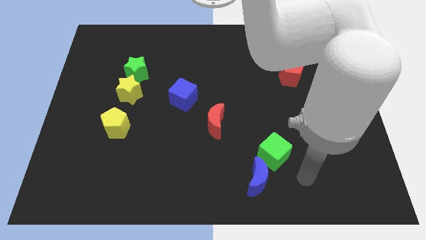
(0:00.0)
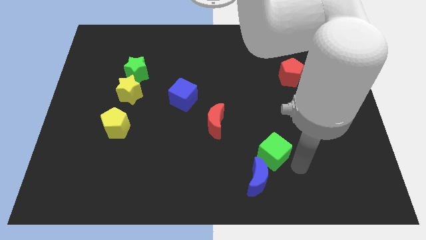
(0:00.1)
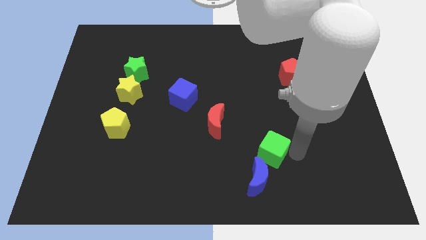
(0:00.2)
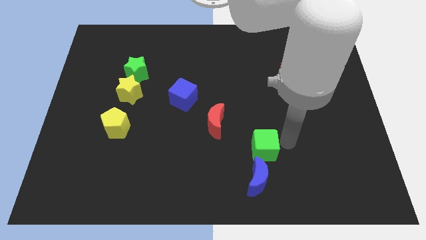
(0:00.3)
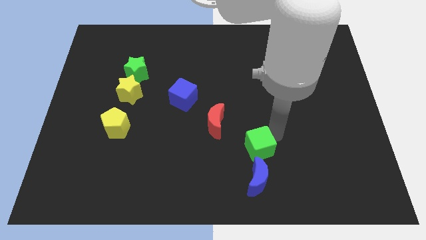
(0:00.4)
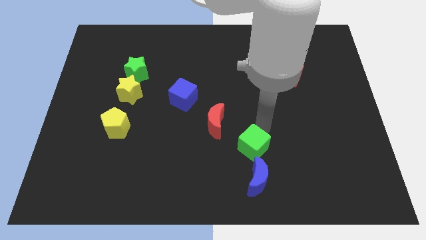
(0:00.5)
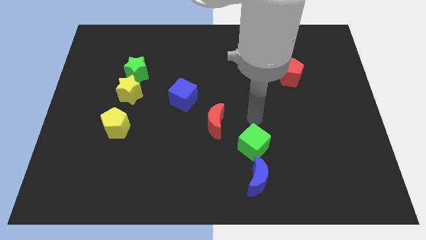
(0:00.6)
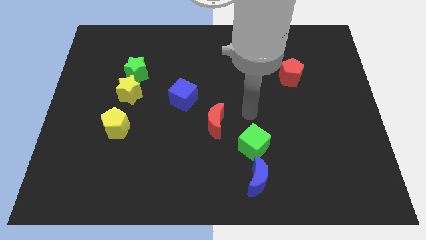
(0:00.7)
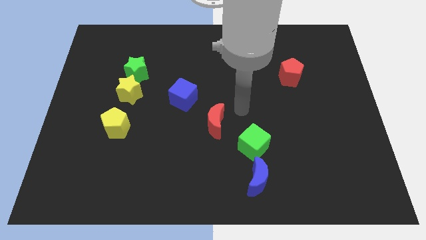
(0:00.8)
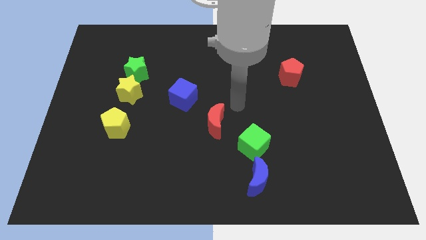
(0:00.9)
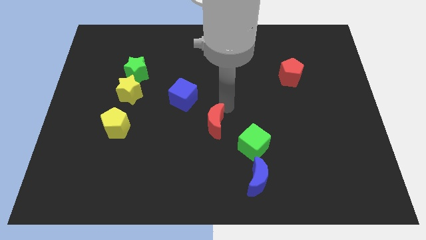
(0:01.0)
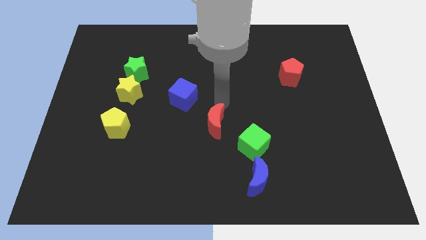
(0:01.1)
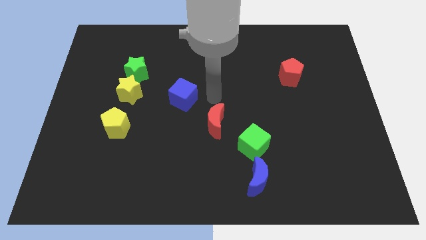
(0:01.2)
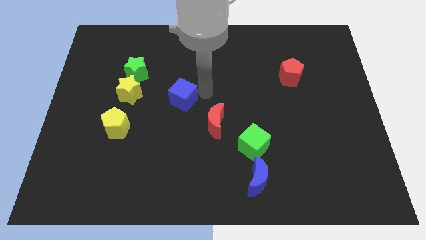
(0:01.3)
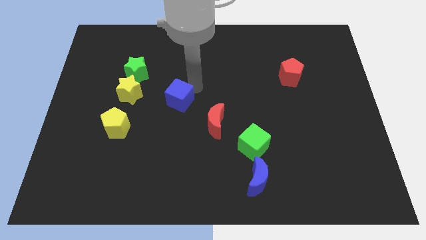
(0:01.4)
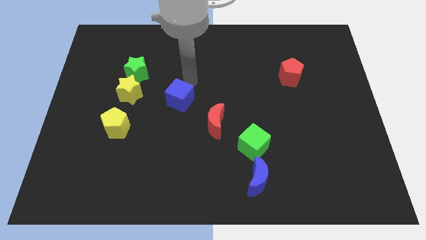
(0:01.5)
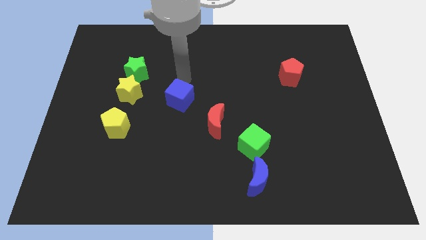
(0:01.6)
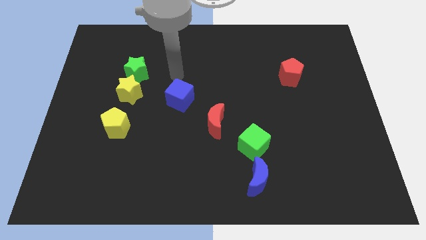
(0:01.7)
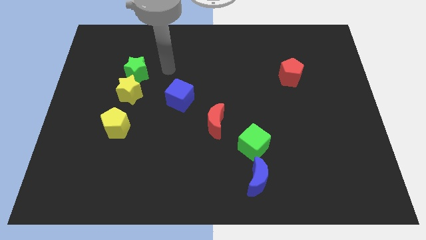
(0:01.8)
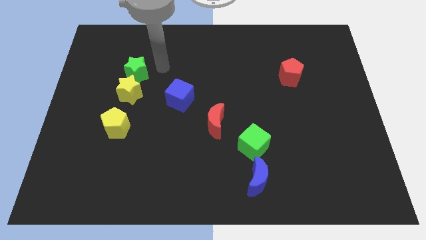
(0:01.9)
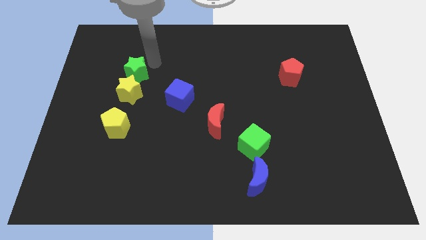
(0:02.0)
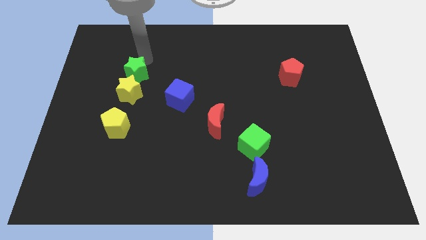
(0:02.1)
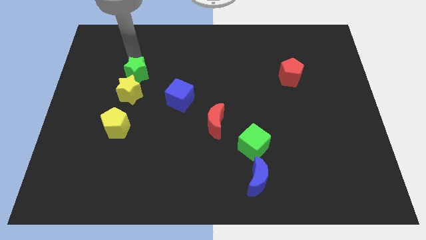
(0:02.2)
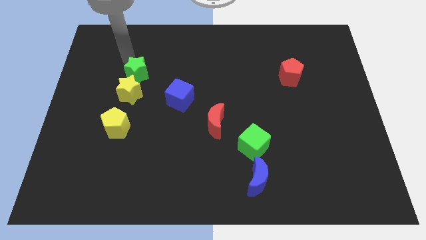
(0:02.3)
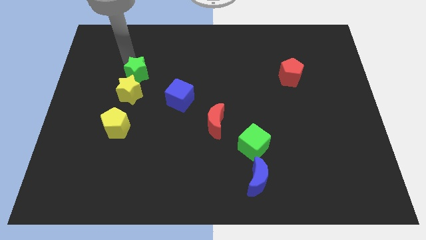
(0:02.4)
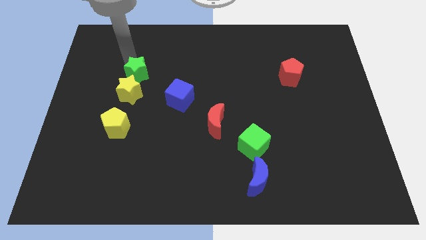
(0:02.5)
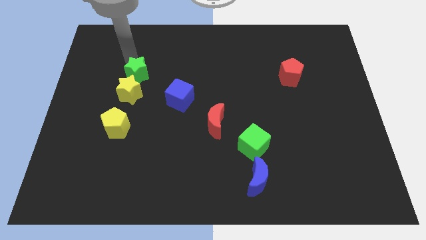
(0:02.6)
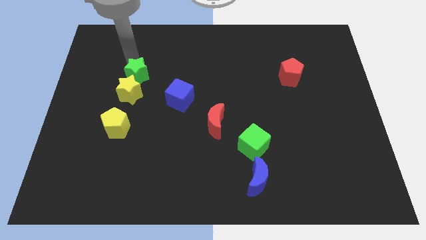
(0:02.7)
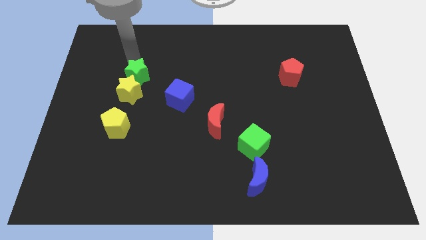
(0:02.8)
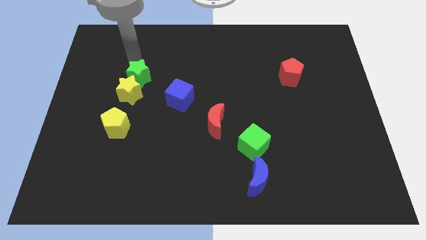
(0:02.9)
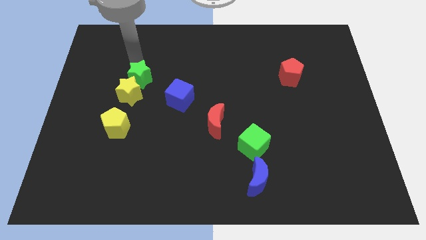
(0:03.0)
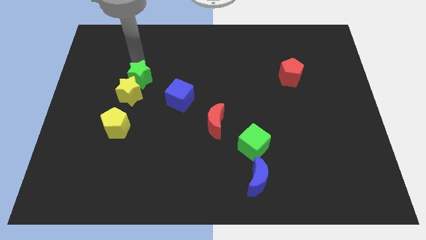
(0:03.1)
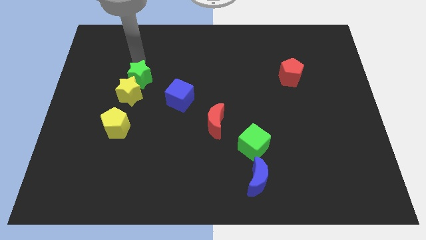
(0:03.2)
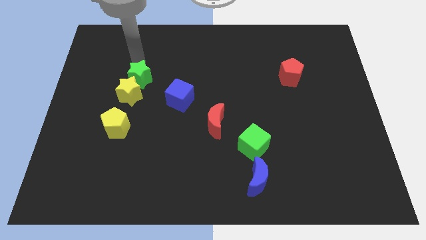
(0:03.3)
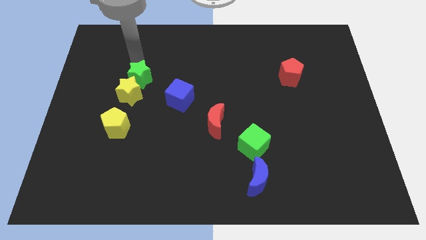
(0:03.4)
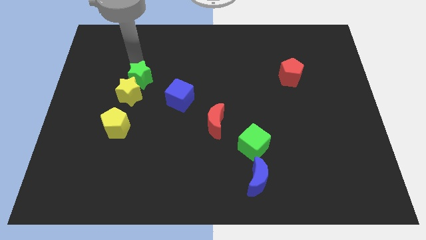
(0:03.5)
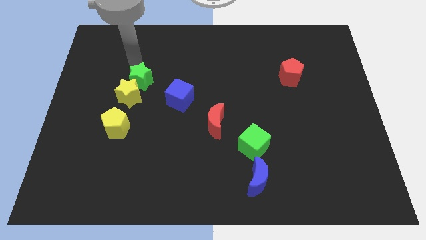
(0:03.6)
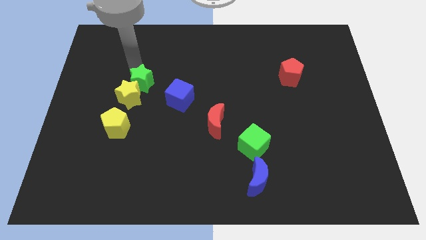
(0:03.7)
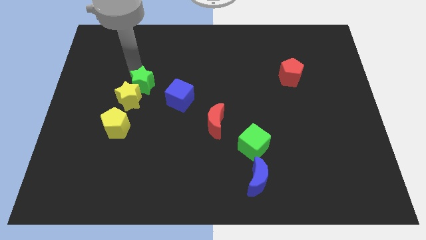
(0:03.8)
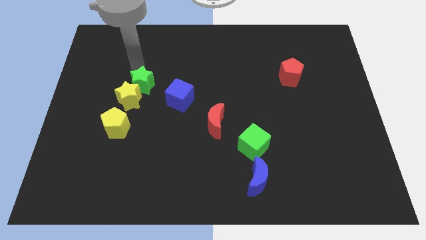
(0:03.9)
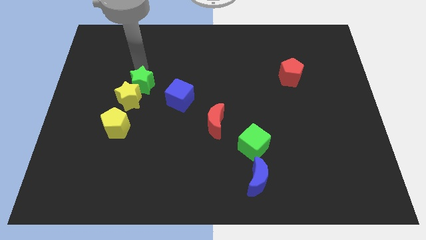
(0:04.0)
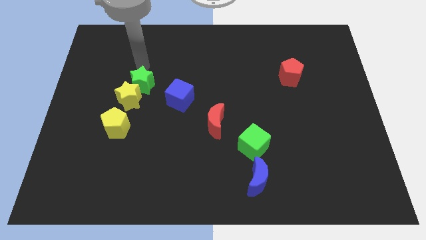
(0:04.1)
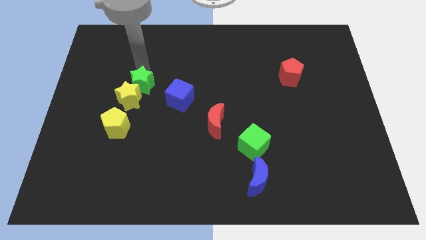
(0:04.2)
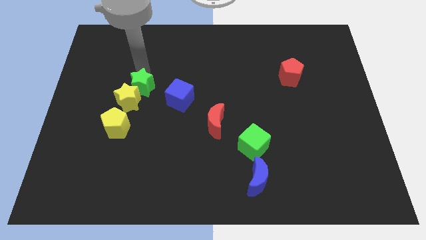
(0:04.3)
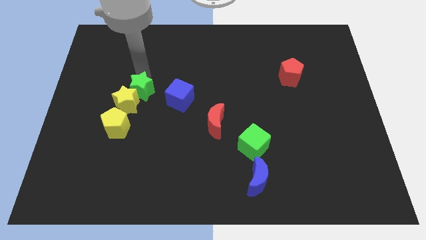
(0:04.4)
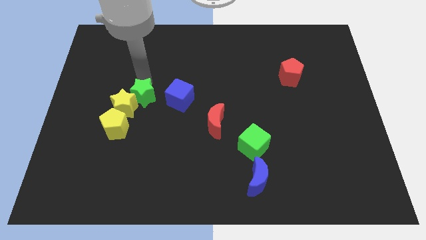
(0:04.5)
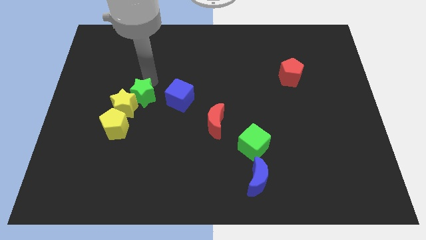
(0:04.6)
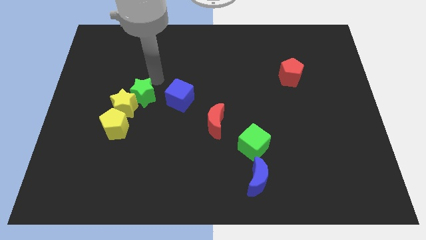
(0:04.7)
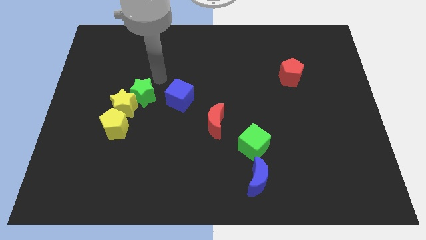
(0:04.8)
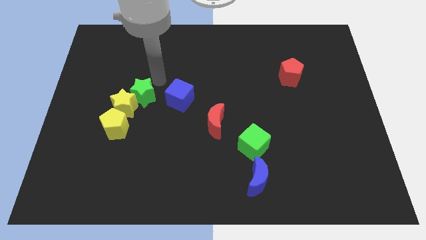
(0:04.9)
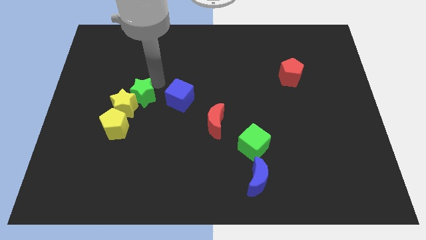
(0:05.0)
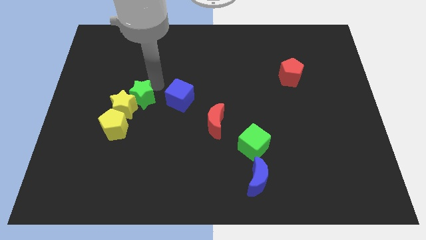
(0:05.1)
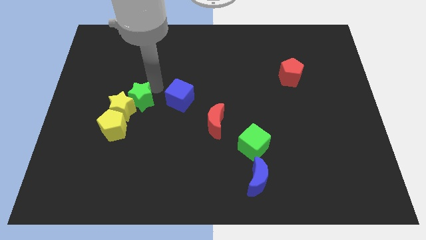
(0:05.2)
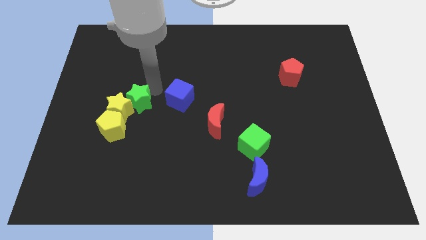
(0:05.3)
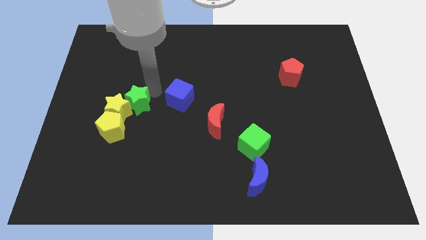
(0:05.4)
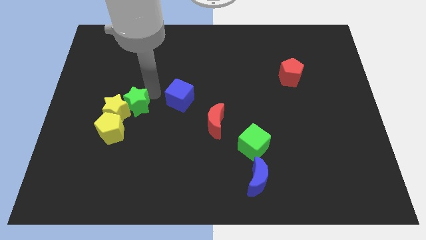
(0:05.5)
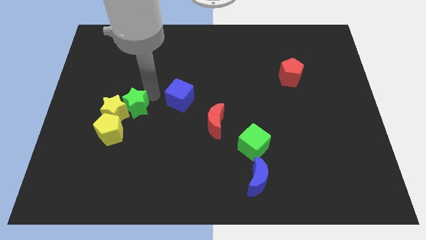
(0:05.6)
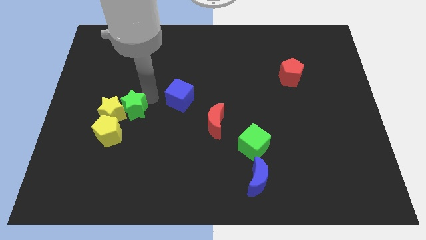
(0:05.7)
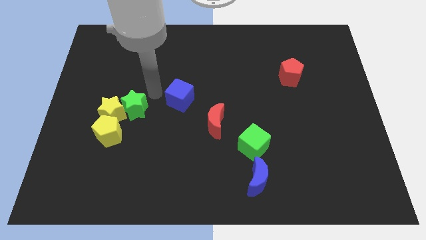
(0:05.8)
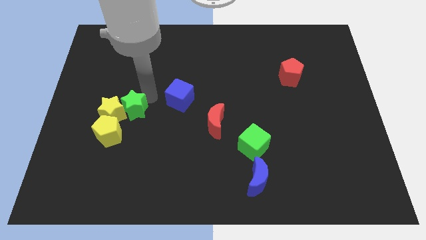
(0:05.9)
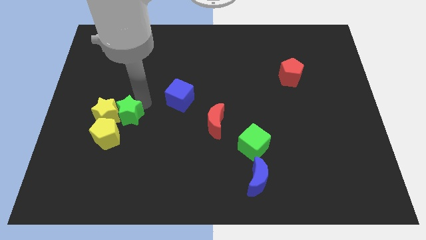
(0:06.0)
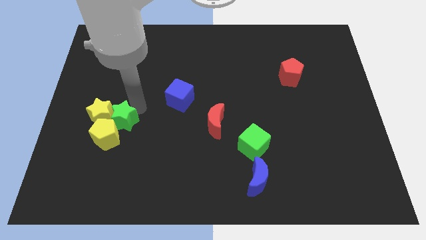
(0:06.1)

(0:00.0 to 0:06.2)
push the green star to the yellow pentagon

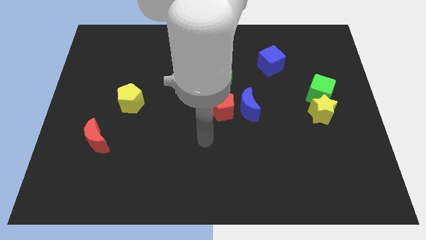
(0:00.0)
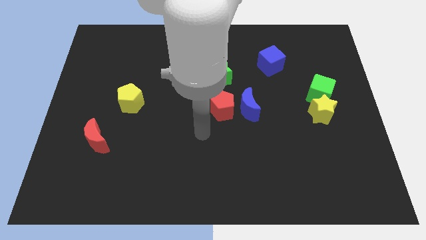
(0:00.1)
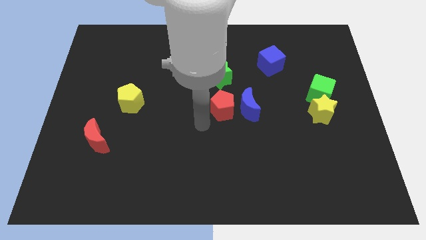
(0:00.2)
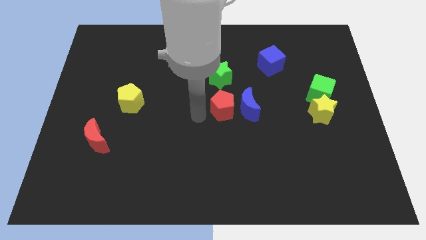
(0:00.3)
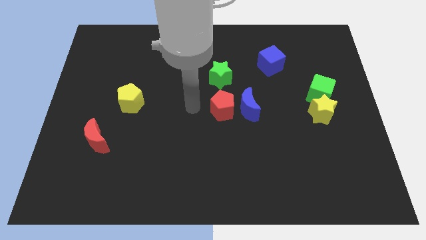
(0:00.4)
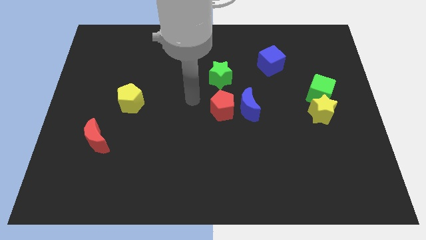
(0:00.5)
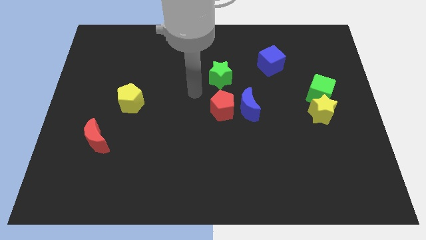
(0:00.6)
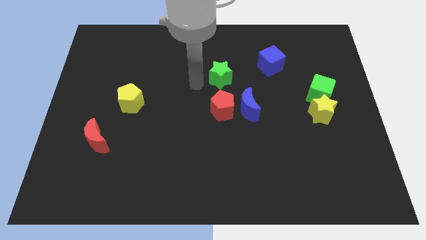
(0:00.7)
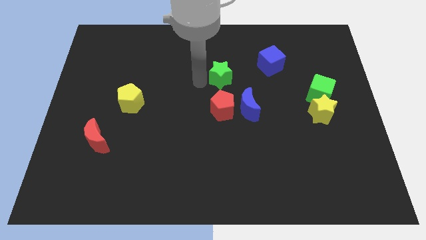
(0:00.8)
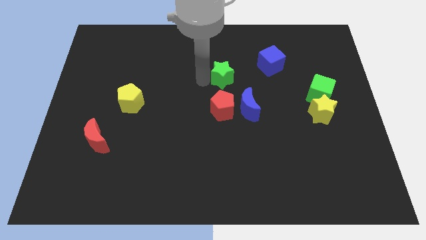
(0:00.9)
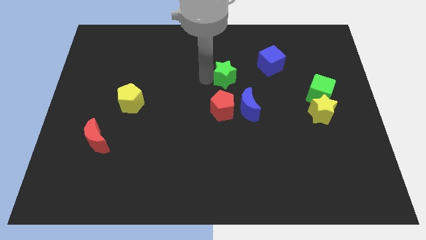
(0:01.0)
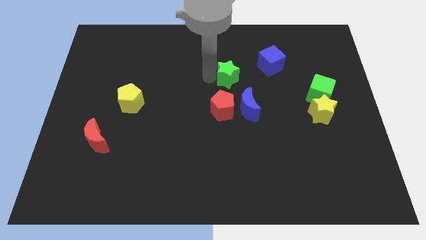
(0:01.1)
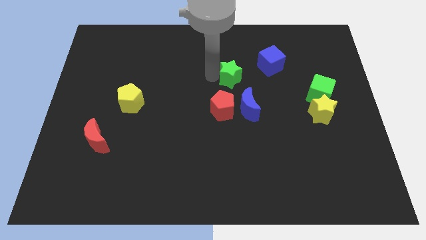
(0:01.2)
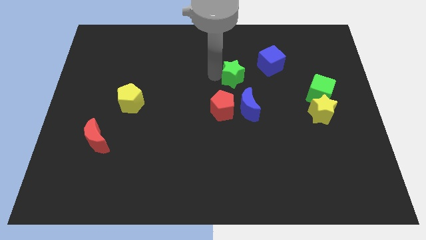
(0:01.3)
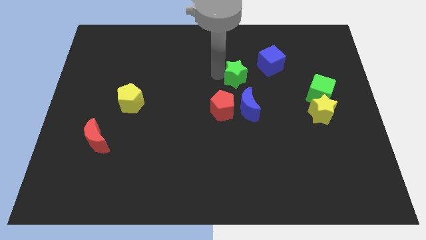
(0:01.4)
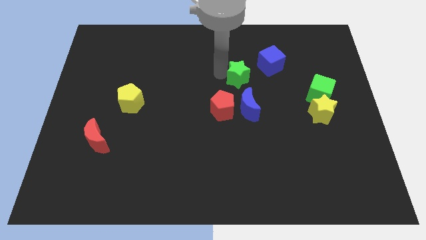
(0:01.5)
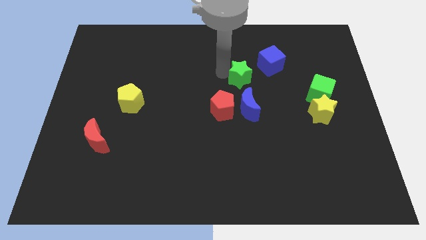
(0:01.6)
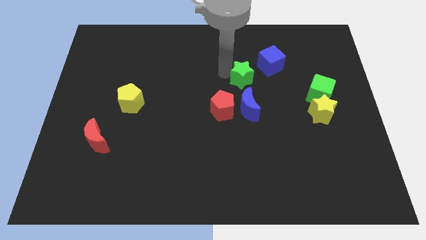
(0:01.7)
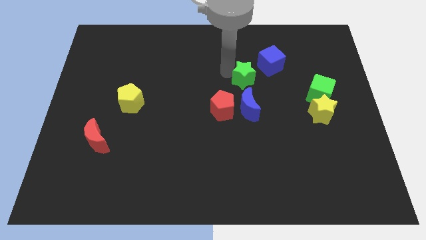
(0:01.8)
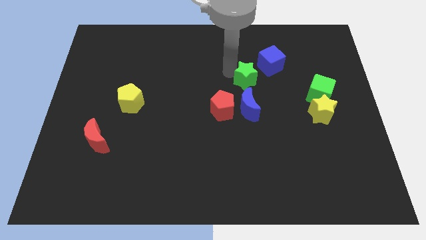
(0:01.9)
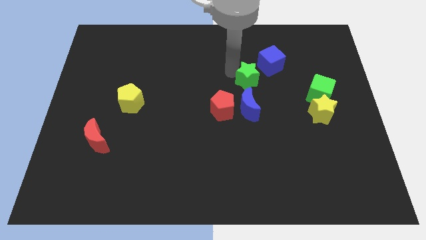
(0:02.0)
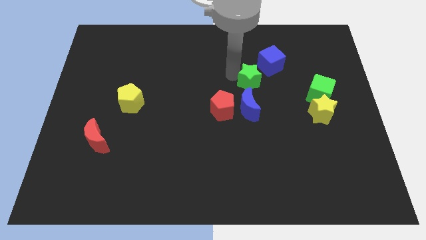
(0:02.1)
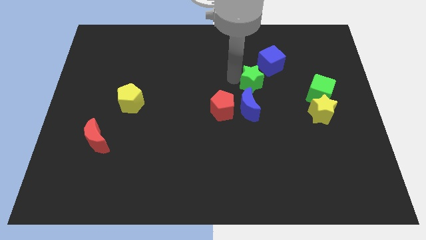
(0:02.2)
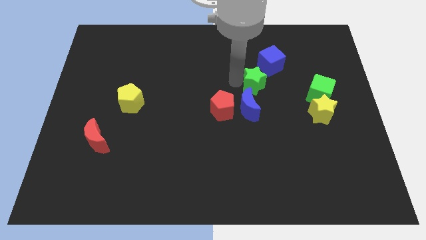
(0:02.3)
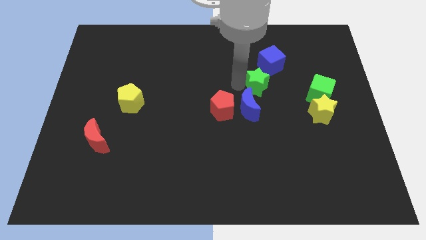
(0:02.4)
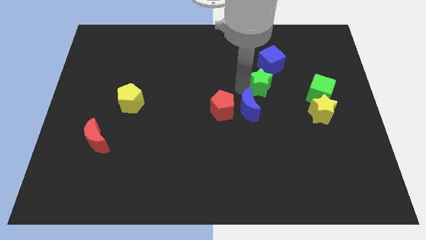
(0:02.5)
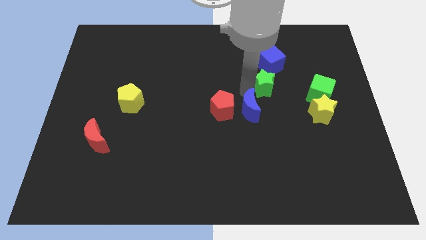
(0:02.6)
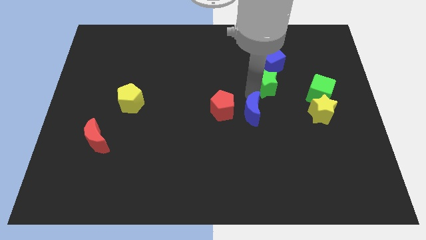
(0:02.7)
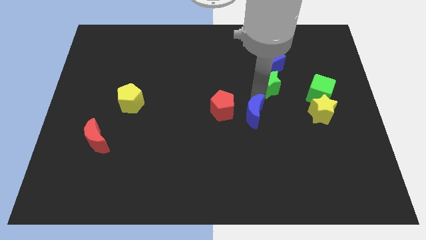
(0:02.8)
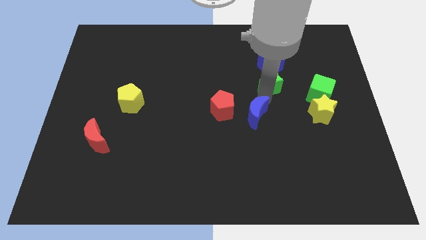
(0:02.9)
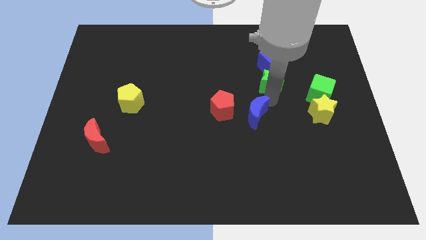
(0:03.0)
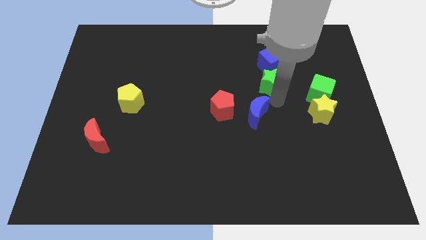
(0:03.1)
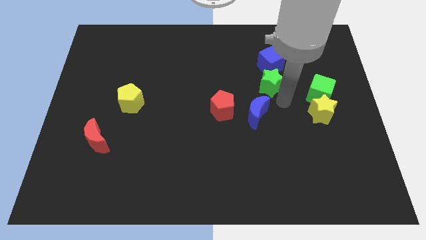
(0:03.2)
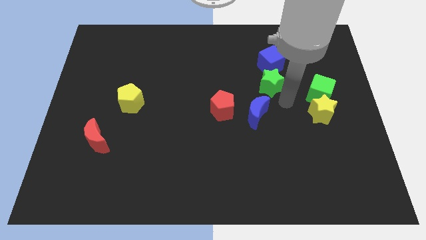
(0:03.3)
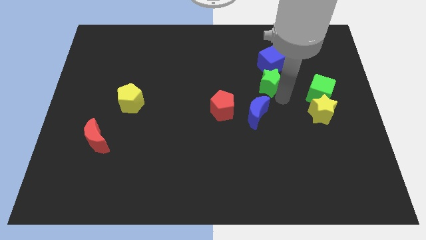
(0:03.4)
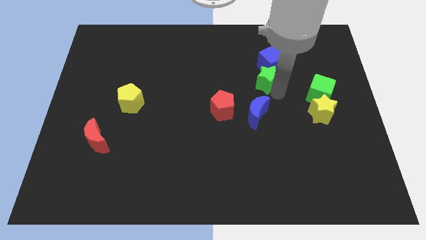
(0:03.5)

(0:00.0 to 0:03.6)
move the green star close to the blue cube
